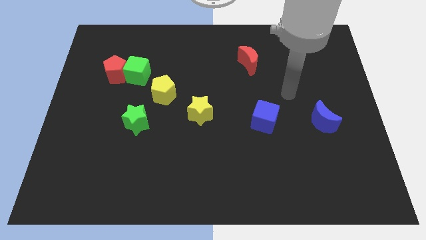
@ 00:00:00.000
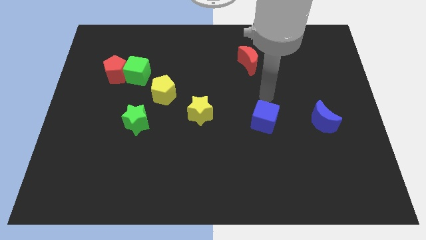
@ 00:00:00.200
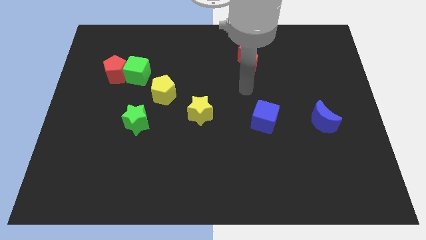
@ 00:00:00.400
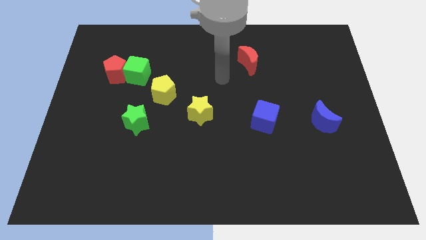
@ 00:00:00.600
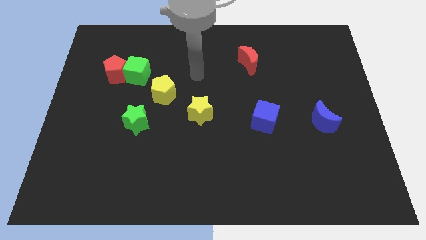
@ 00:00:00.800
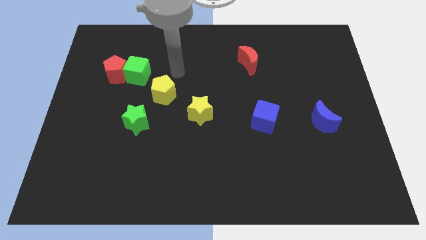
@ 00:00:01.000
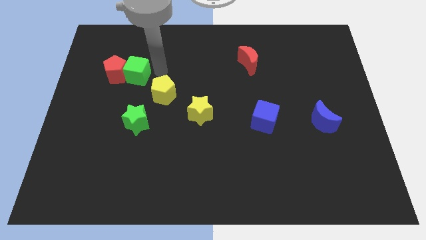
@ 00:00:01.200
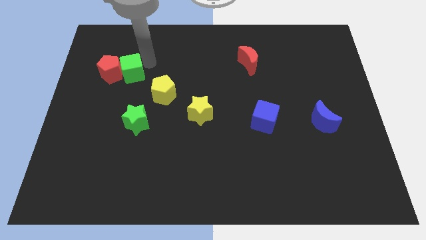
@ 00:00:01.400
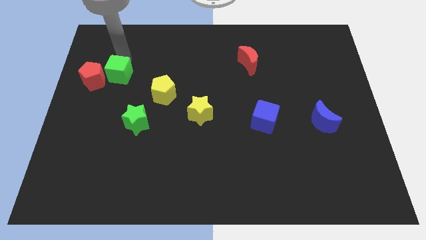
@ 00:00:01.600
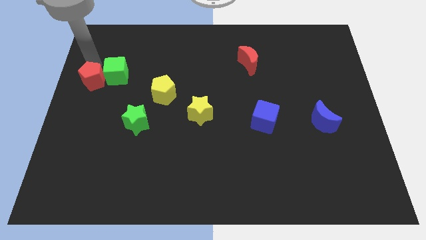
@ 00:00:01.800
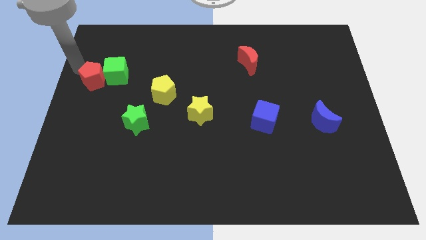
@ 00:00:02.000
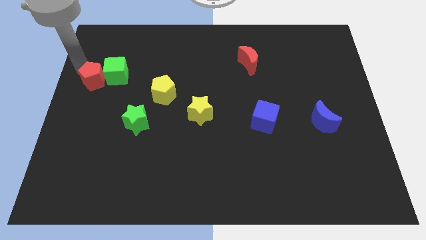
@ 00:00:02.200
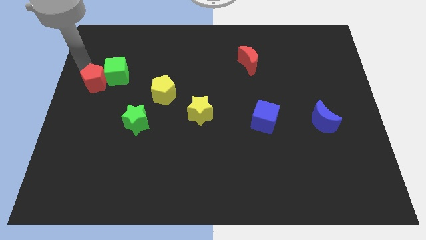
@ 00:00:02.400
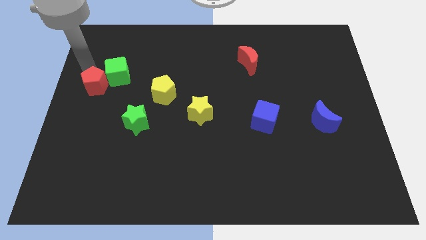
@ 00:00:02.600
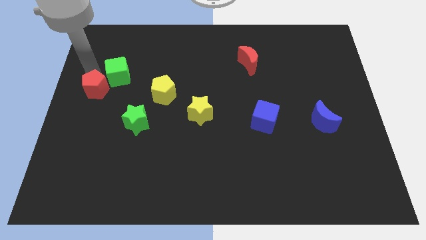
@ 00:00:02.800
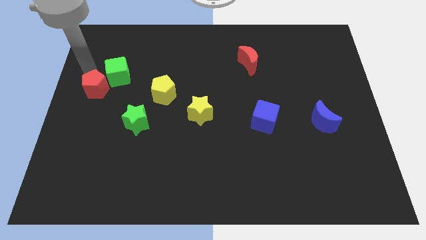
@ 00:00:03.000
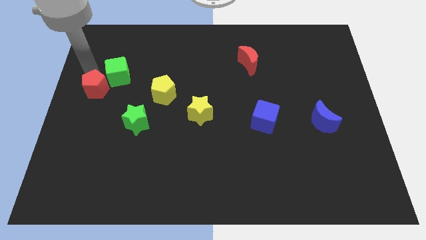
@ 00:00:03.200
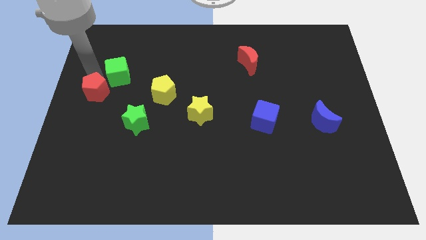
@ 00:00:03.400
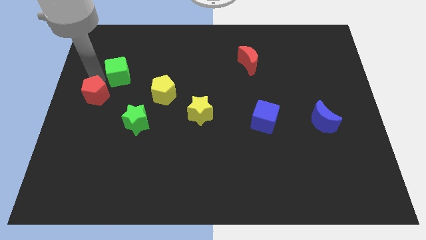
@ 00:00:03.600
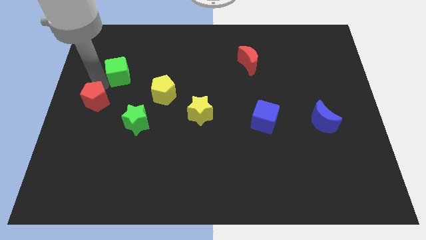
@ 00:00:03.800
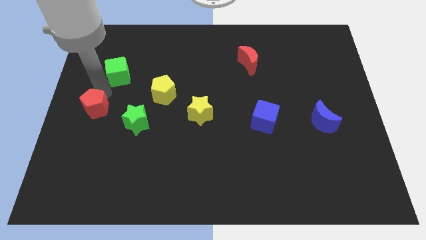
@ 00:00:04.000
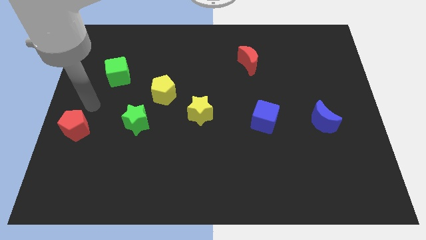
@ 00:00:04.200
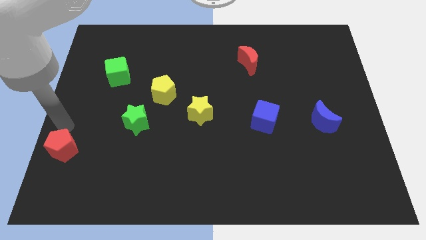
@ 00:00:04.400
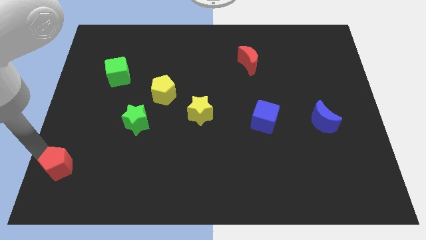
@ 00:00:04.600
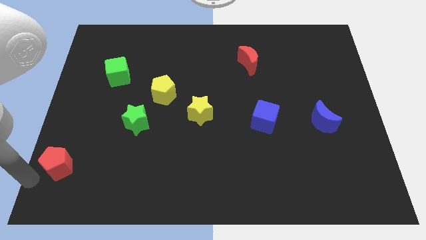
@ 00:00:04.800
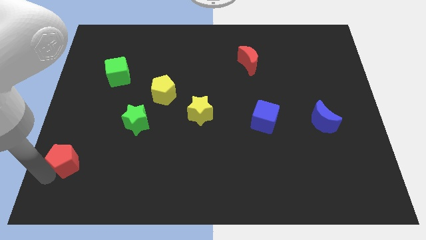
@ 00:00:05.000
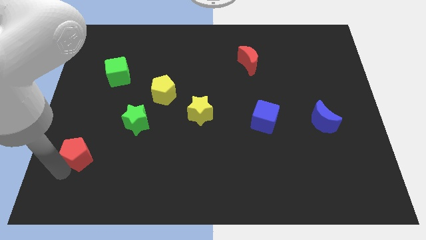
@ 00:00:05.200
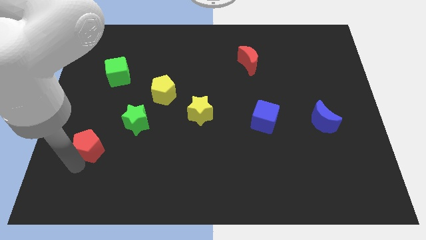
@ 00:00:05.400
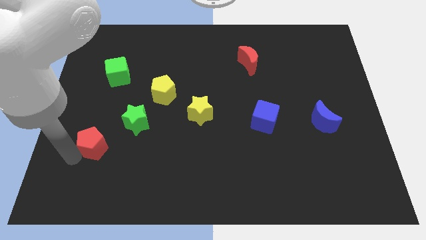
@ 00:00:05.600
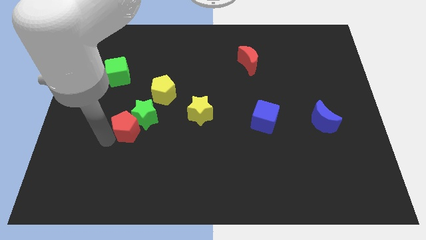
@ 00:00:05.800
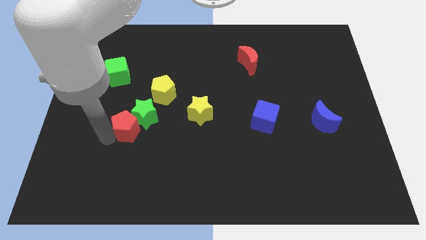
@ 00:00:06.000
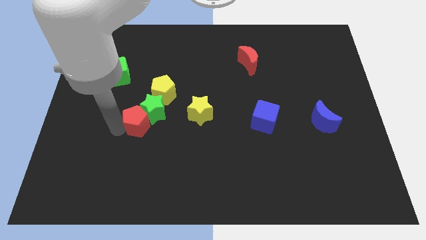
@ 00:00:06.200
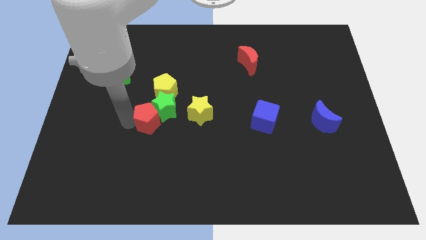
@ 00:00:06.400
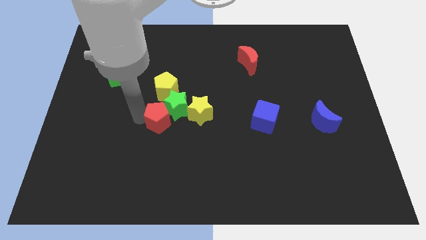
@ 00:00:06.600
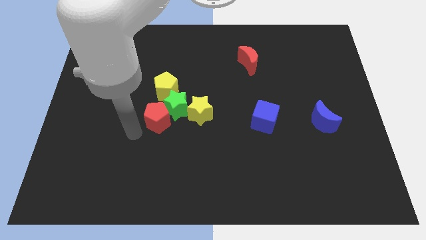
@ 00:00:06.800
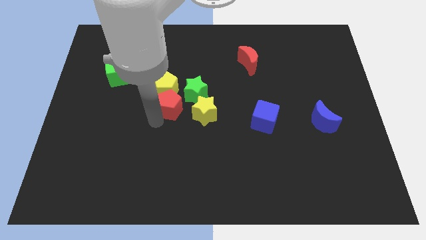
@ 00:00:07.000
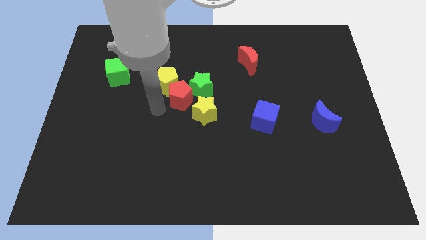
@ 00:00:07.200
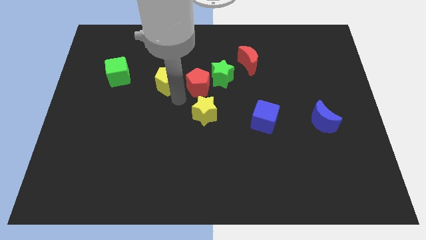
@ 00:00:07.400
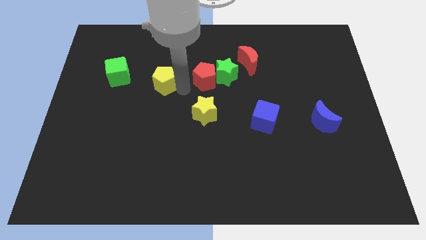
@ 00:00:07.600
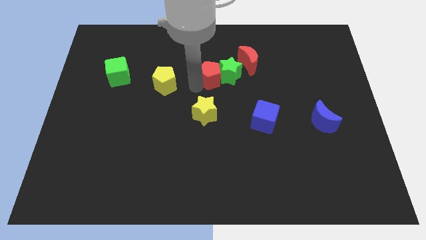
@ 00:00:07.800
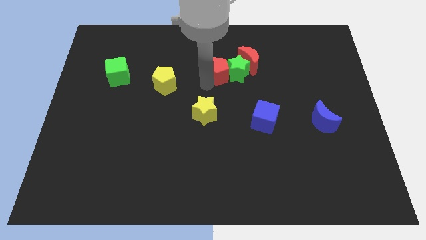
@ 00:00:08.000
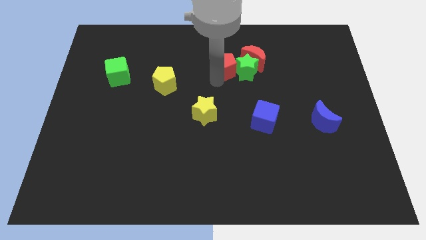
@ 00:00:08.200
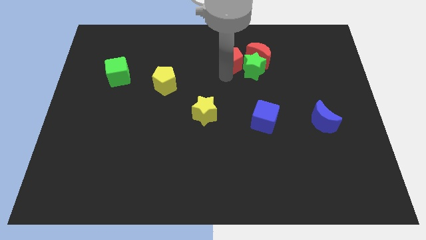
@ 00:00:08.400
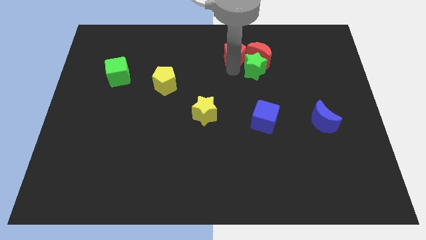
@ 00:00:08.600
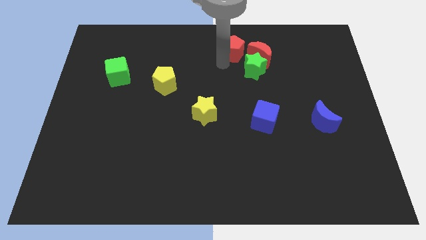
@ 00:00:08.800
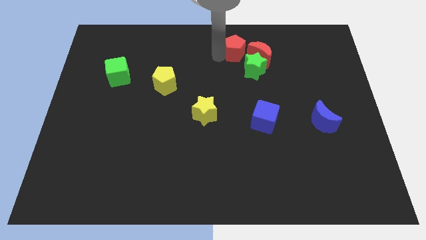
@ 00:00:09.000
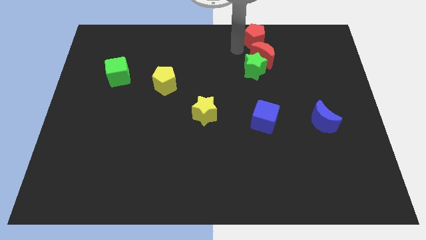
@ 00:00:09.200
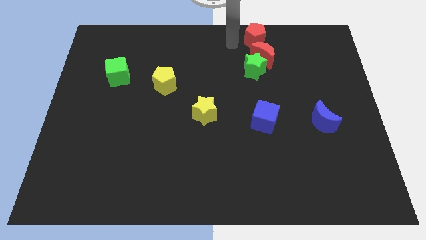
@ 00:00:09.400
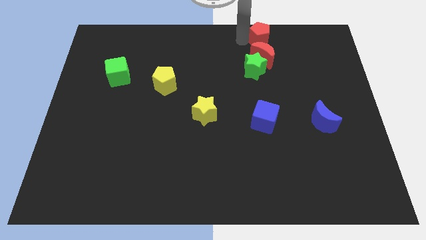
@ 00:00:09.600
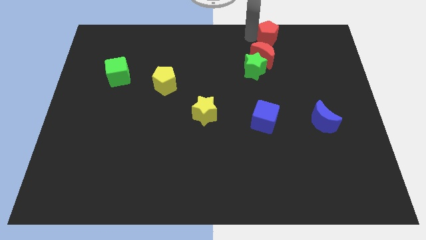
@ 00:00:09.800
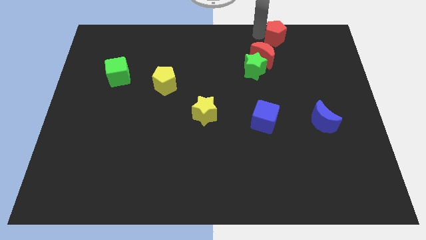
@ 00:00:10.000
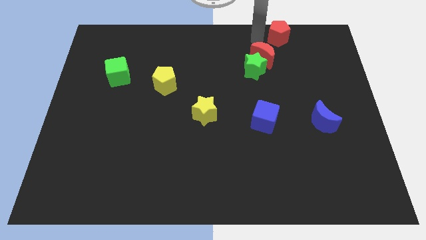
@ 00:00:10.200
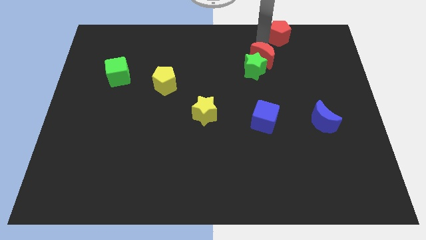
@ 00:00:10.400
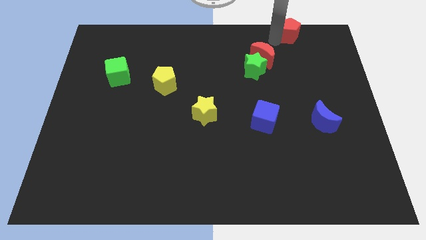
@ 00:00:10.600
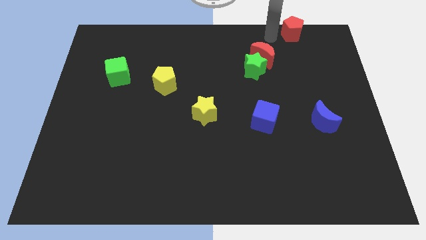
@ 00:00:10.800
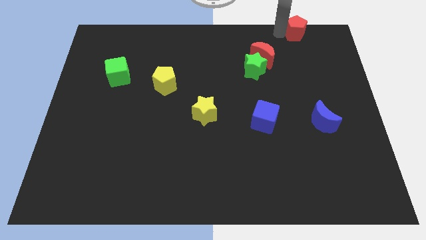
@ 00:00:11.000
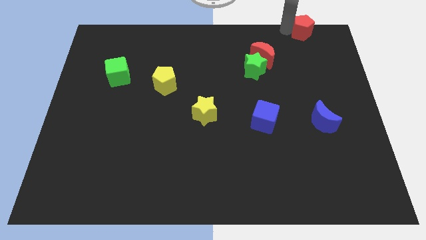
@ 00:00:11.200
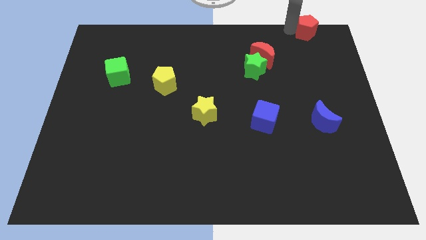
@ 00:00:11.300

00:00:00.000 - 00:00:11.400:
slide the red pentagon to the top right

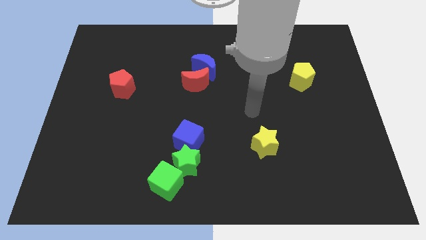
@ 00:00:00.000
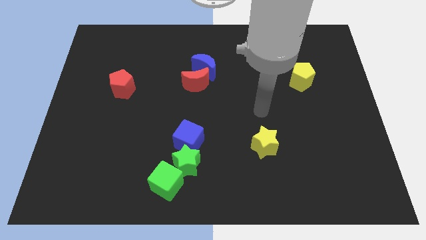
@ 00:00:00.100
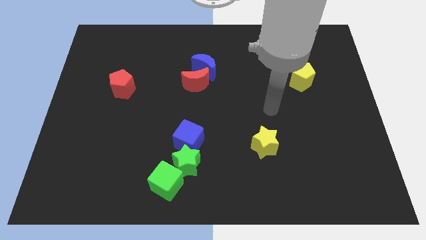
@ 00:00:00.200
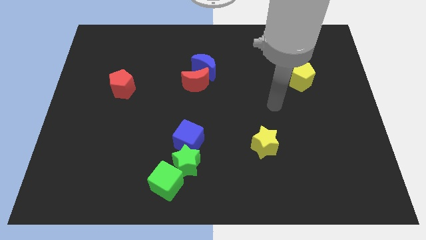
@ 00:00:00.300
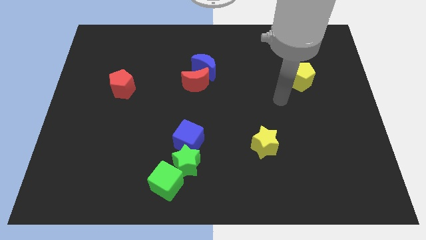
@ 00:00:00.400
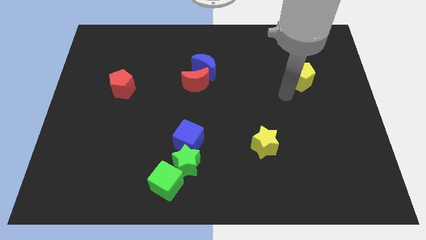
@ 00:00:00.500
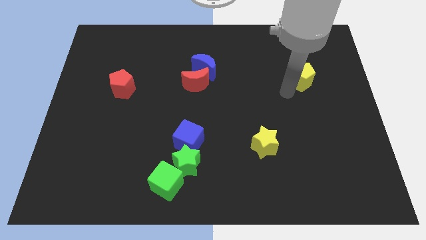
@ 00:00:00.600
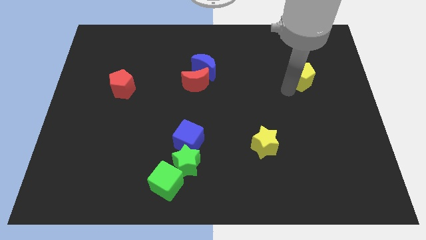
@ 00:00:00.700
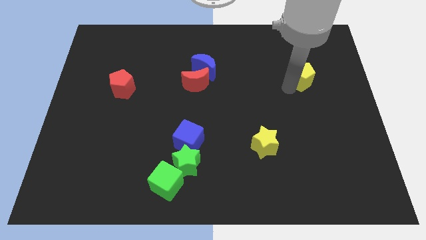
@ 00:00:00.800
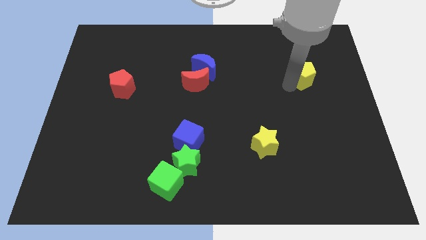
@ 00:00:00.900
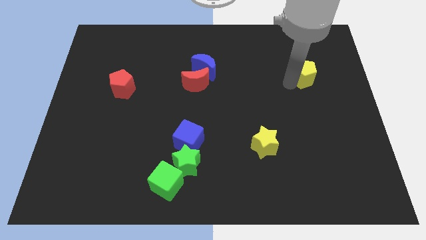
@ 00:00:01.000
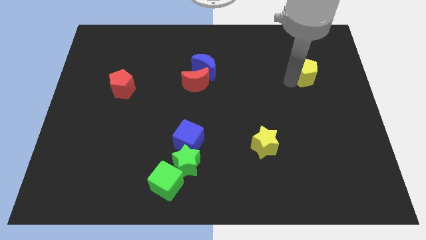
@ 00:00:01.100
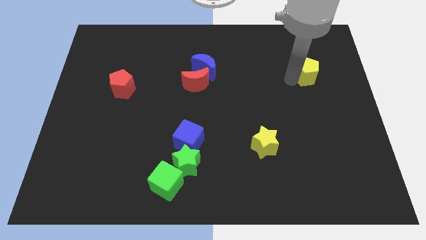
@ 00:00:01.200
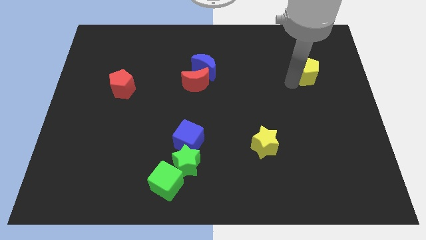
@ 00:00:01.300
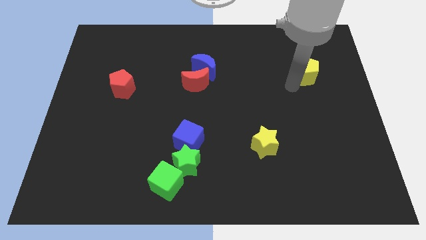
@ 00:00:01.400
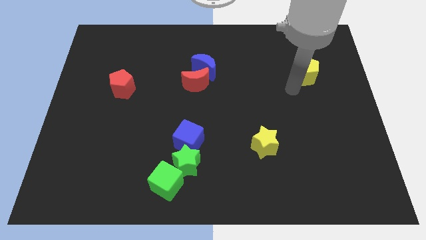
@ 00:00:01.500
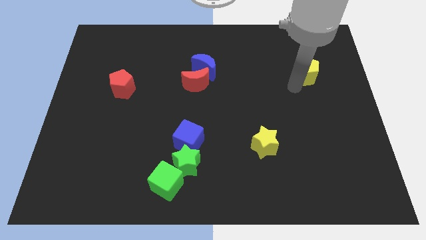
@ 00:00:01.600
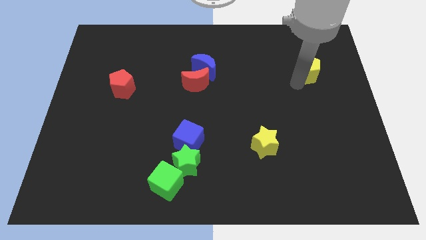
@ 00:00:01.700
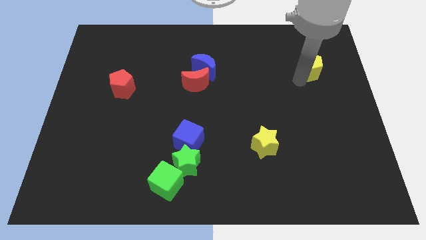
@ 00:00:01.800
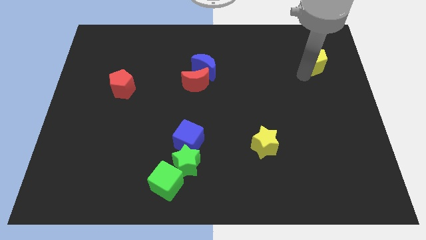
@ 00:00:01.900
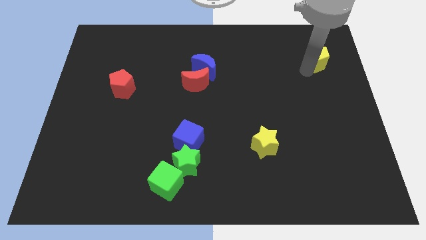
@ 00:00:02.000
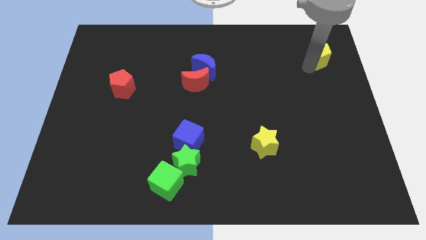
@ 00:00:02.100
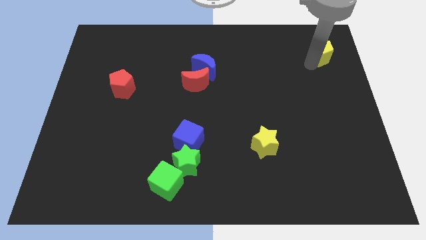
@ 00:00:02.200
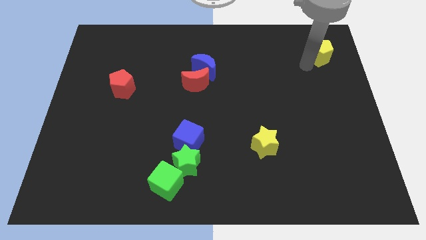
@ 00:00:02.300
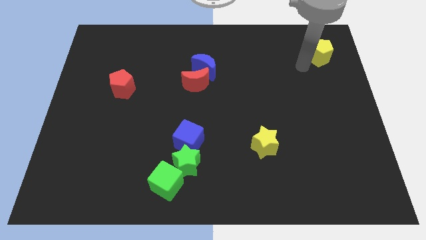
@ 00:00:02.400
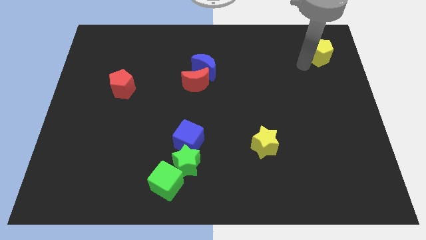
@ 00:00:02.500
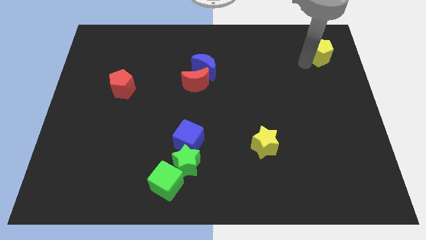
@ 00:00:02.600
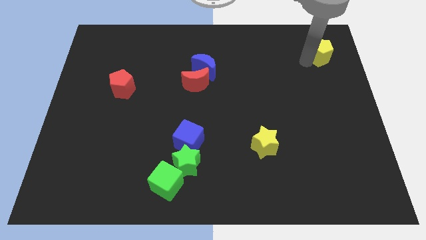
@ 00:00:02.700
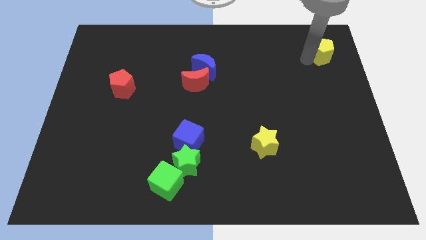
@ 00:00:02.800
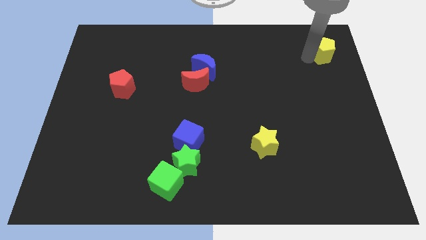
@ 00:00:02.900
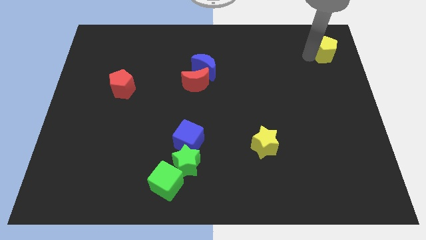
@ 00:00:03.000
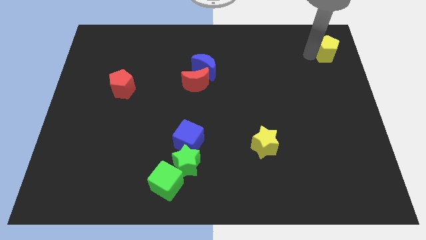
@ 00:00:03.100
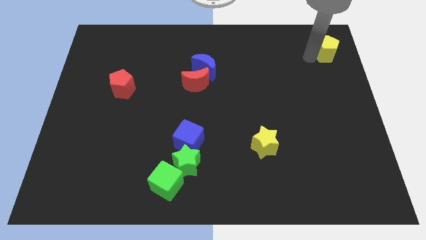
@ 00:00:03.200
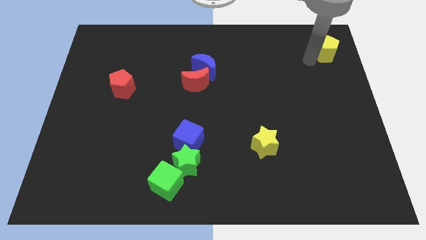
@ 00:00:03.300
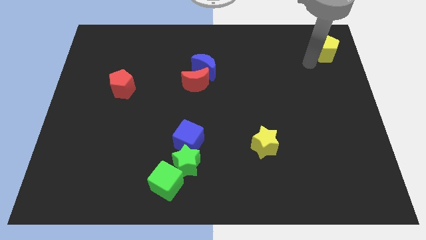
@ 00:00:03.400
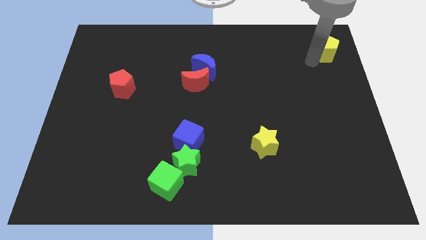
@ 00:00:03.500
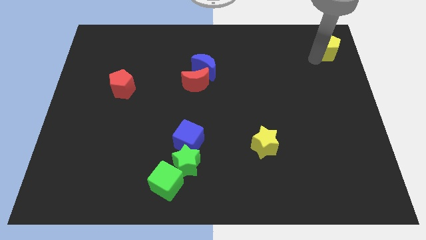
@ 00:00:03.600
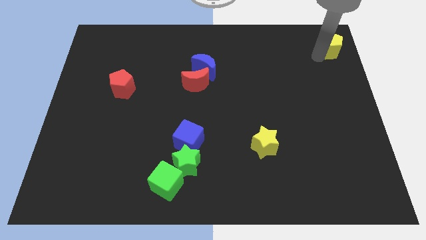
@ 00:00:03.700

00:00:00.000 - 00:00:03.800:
push the yellow pentagon to the upper right corner
